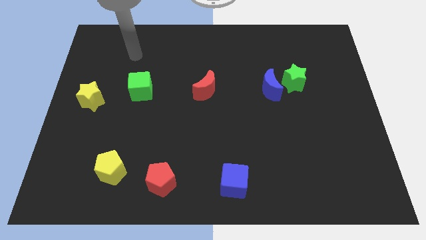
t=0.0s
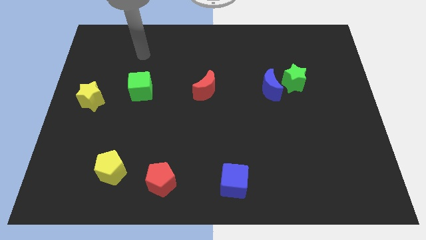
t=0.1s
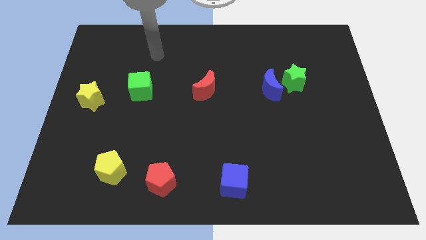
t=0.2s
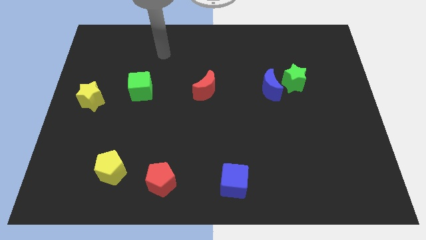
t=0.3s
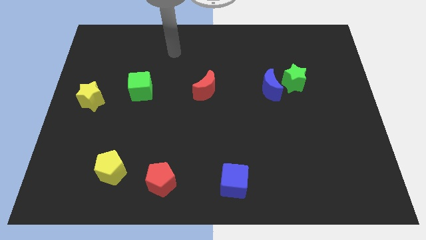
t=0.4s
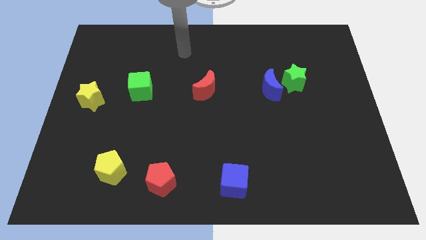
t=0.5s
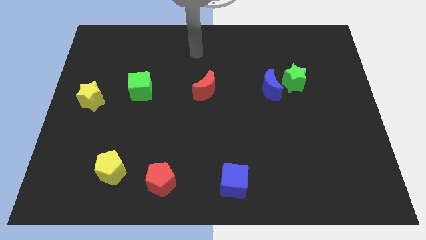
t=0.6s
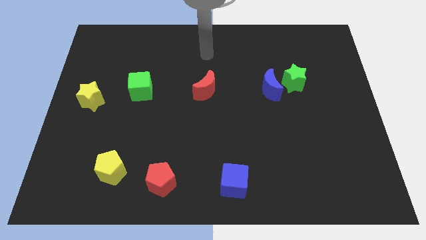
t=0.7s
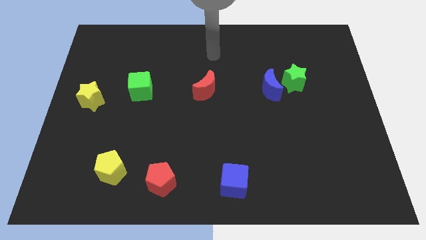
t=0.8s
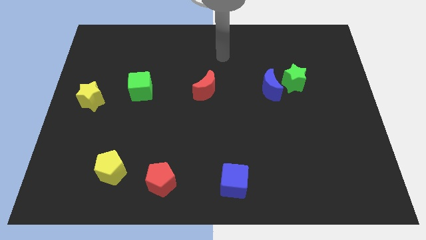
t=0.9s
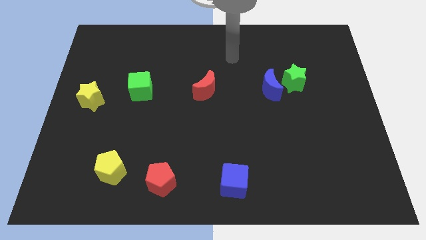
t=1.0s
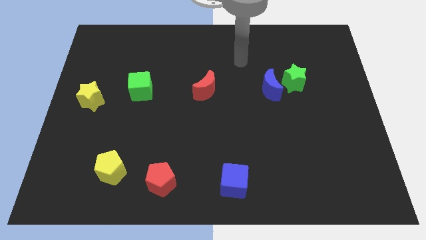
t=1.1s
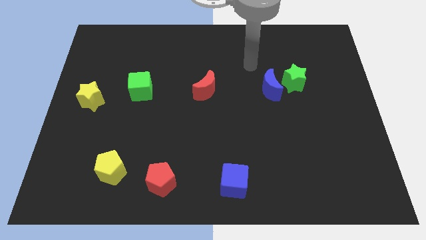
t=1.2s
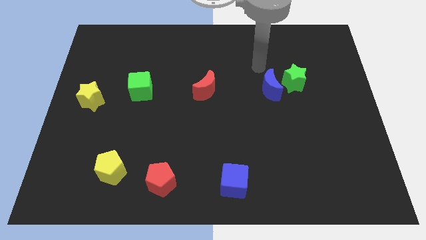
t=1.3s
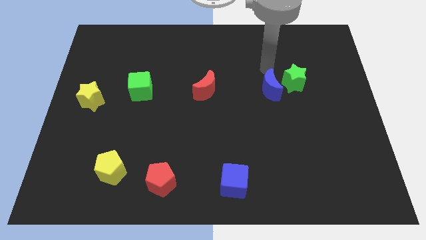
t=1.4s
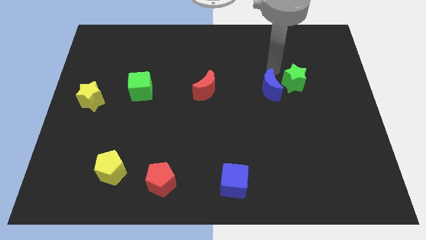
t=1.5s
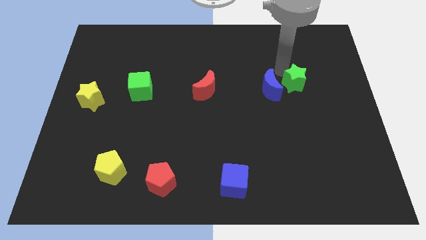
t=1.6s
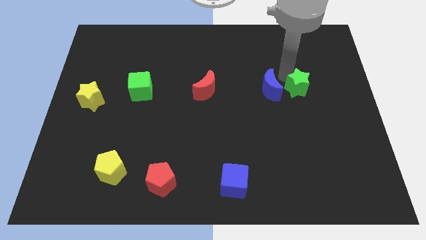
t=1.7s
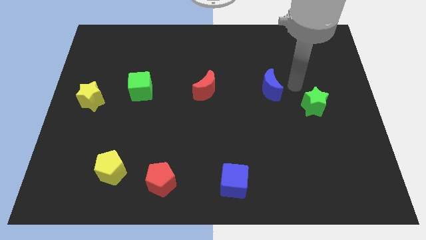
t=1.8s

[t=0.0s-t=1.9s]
pull the blue moon apart from the green star

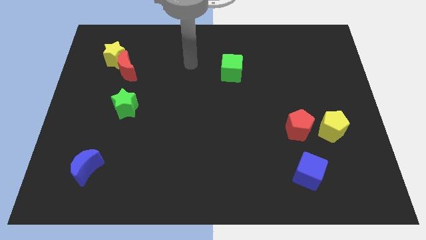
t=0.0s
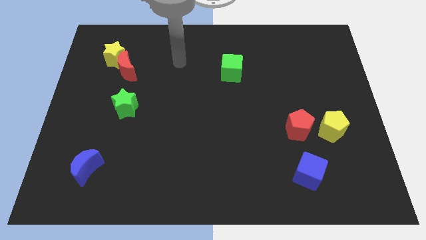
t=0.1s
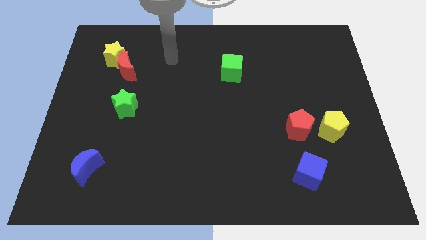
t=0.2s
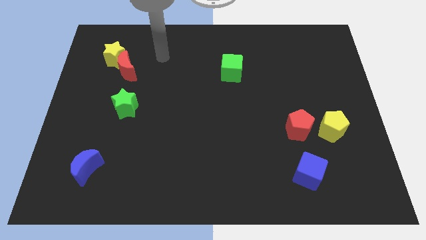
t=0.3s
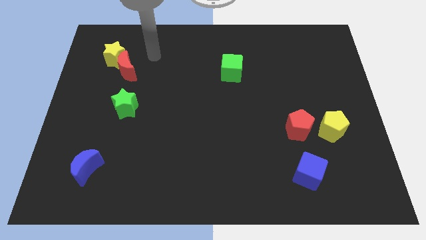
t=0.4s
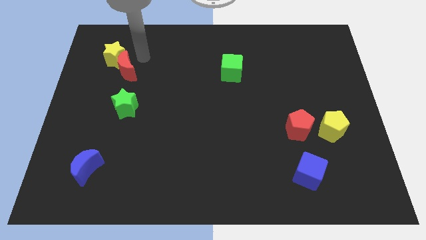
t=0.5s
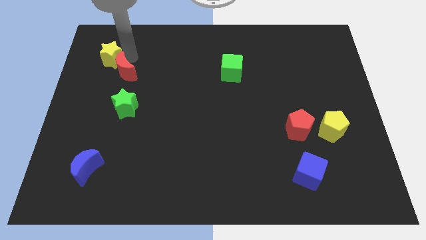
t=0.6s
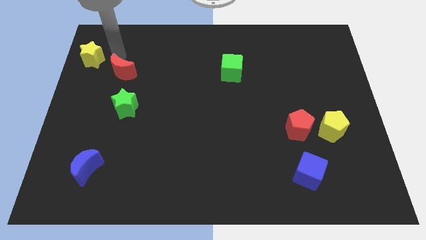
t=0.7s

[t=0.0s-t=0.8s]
separate the red moon from the yellow star

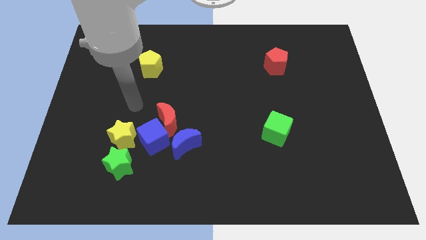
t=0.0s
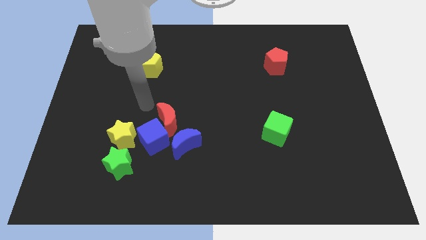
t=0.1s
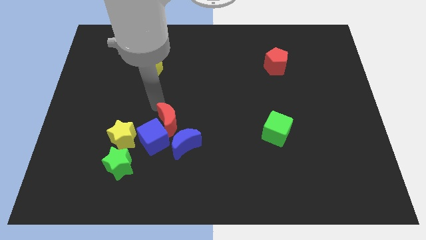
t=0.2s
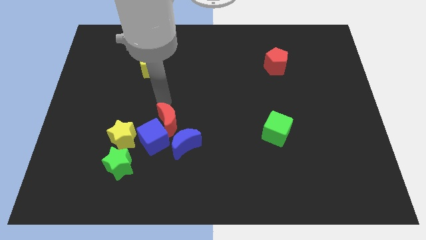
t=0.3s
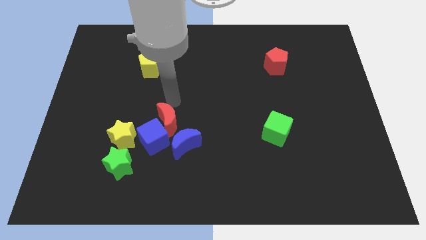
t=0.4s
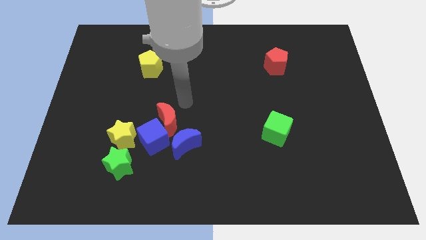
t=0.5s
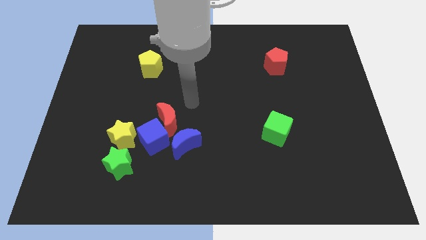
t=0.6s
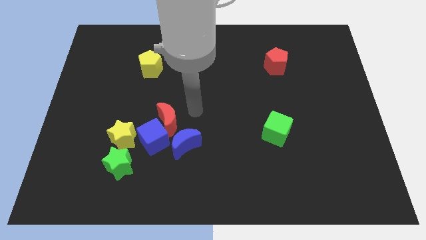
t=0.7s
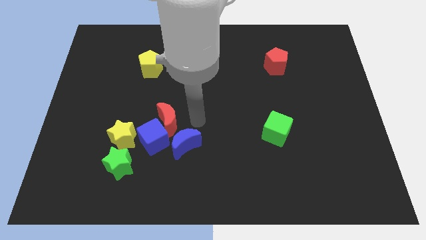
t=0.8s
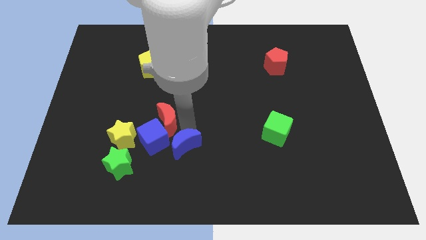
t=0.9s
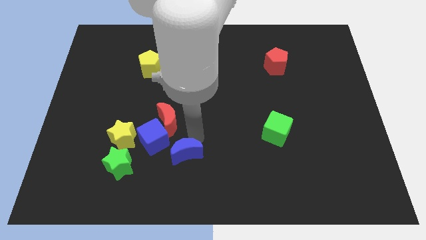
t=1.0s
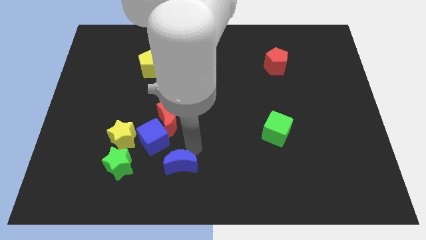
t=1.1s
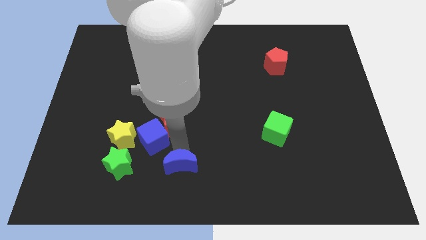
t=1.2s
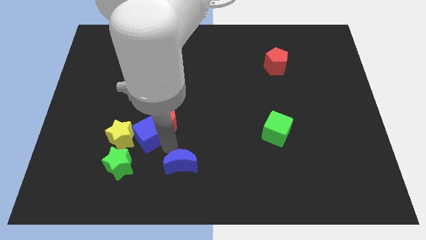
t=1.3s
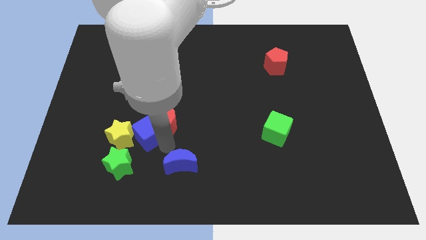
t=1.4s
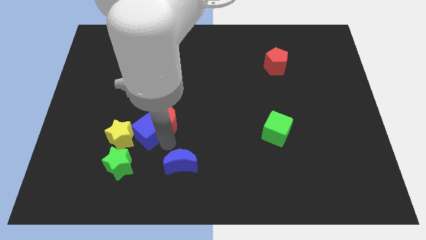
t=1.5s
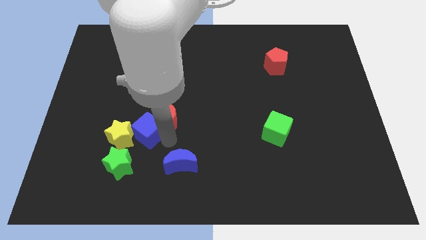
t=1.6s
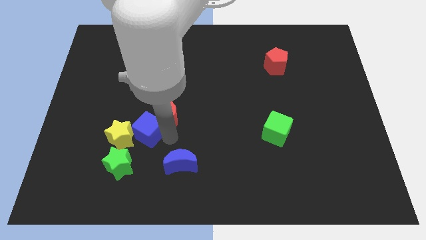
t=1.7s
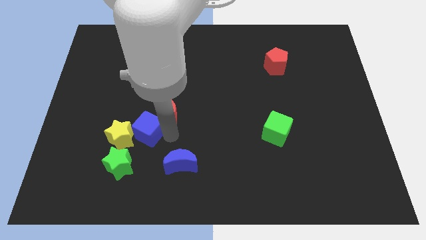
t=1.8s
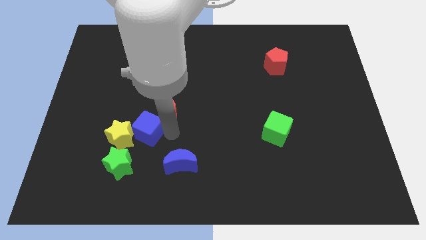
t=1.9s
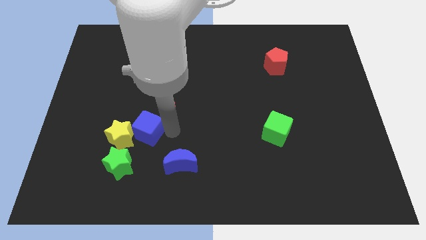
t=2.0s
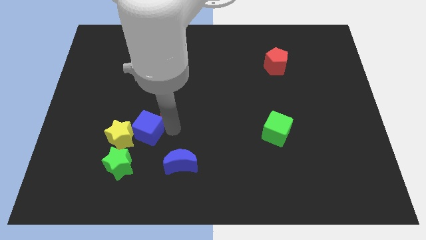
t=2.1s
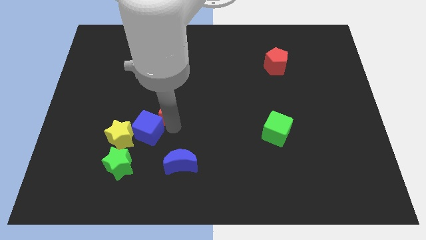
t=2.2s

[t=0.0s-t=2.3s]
pull the red moon apart from the blue cube and blue moon

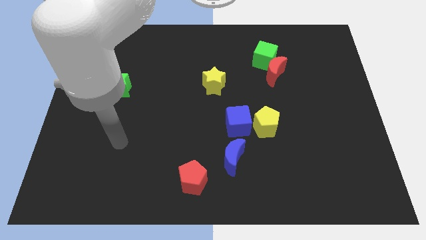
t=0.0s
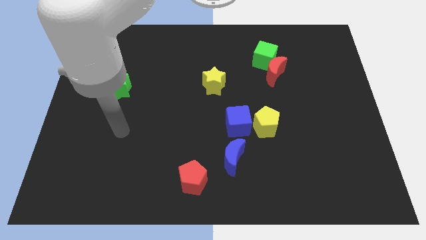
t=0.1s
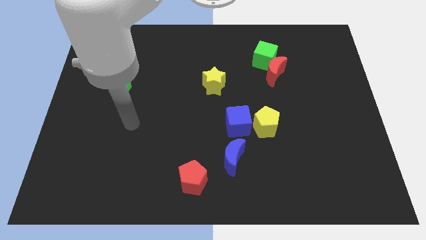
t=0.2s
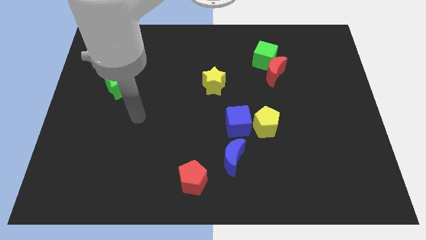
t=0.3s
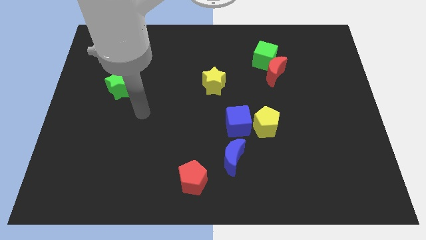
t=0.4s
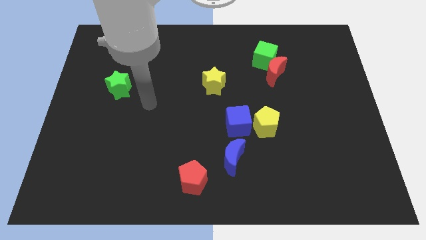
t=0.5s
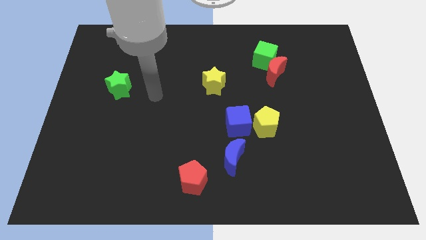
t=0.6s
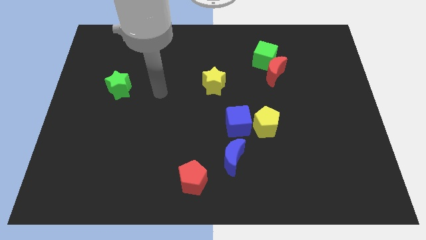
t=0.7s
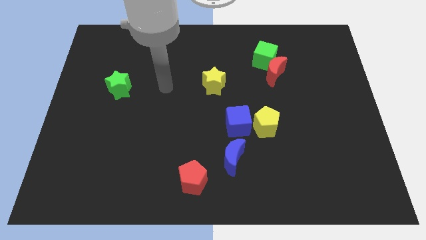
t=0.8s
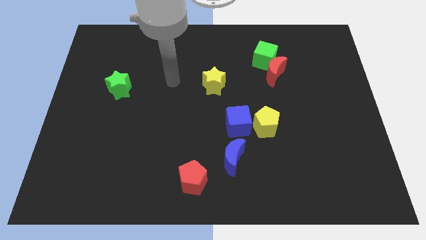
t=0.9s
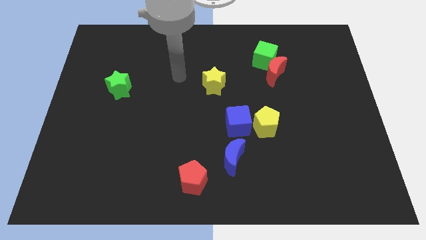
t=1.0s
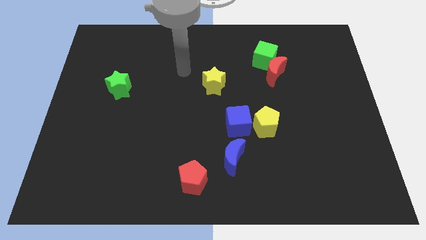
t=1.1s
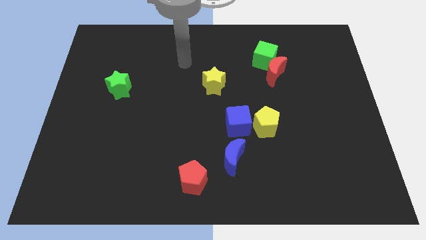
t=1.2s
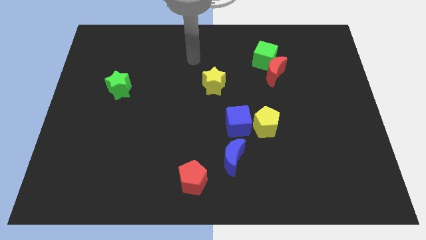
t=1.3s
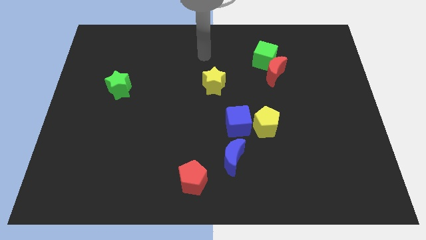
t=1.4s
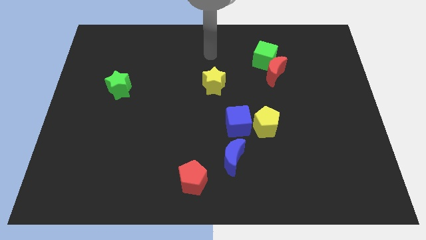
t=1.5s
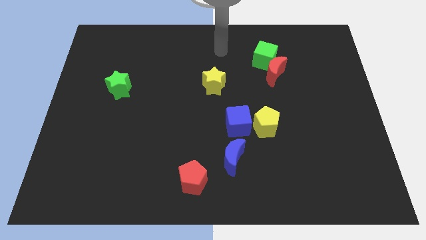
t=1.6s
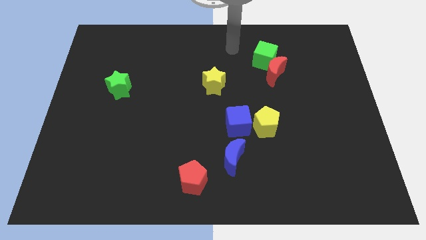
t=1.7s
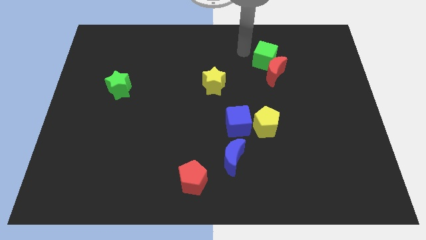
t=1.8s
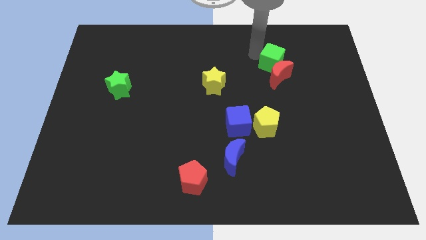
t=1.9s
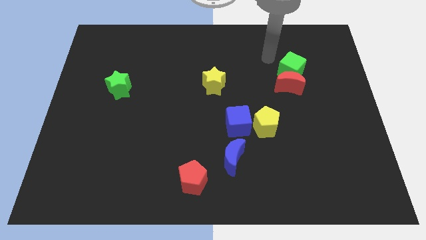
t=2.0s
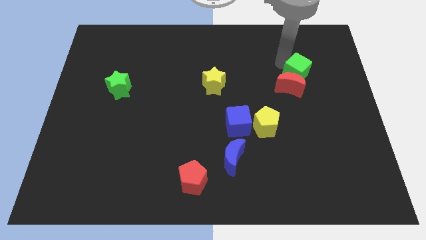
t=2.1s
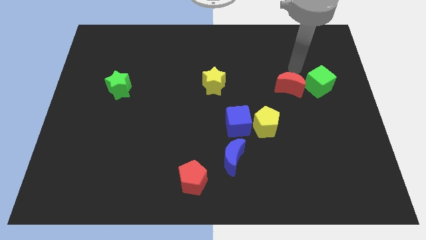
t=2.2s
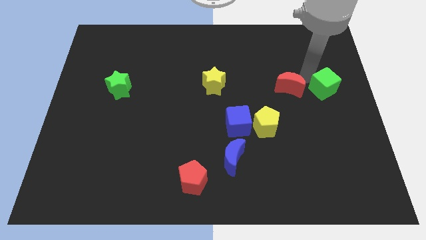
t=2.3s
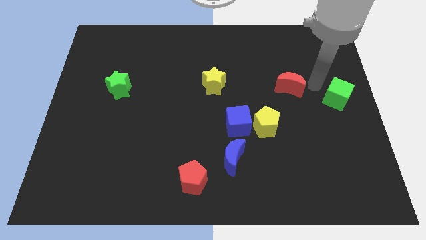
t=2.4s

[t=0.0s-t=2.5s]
separate the red moon from the green cube

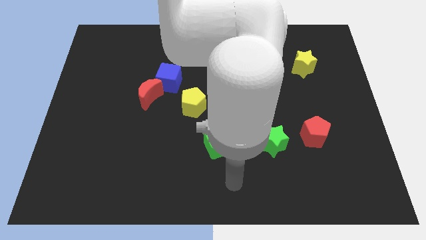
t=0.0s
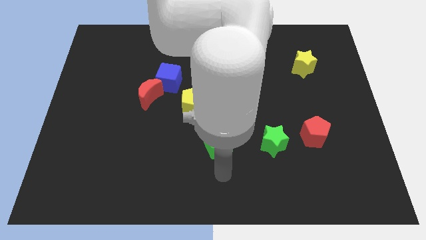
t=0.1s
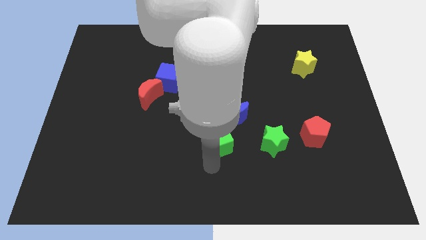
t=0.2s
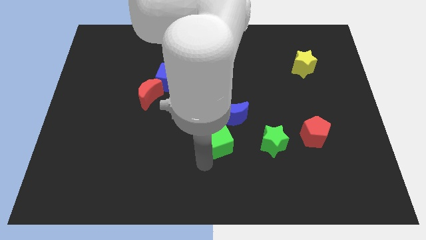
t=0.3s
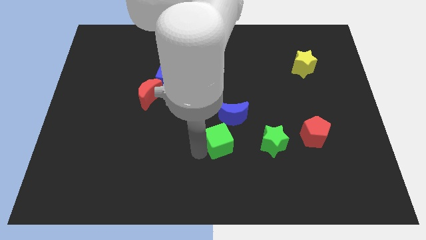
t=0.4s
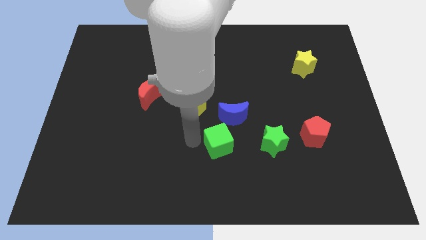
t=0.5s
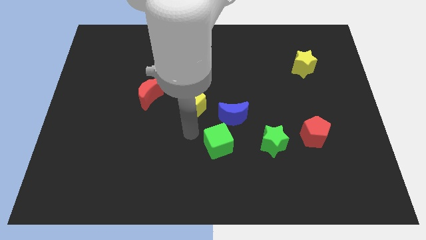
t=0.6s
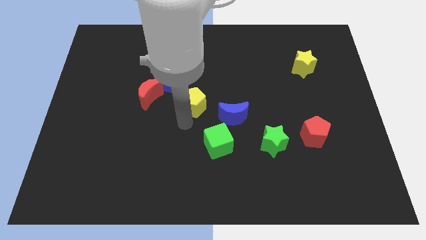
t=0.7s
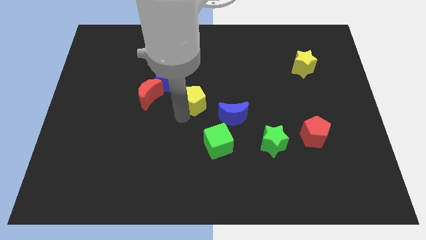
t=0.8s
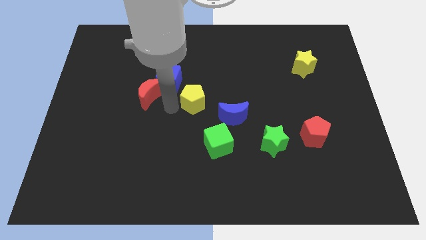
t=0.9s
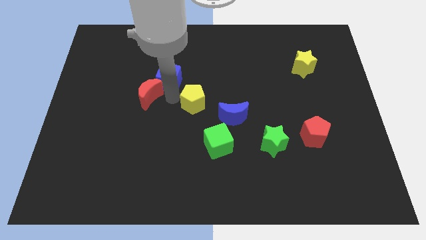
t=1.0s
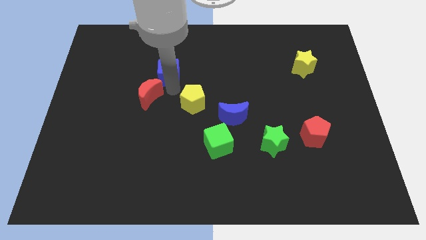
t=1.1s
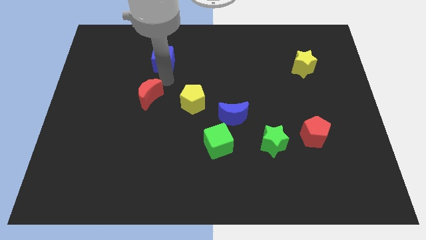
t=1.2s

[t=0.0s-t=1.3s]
separate the red moon from the blue cube

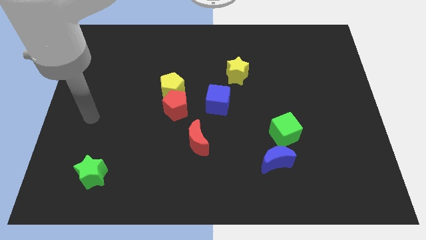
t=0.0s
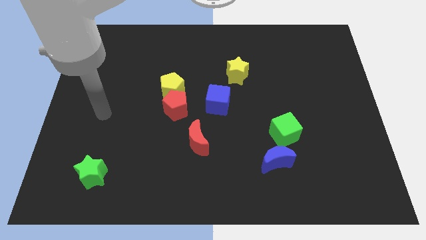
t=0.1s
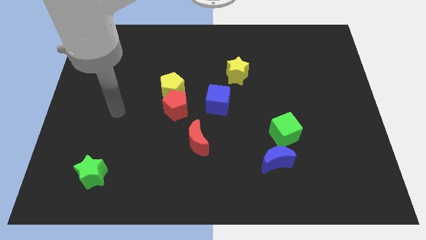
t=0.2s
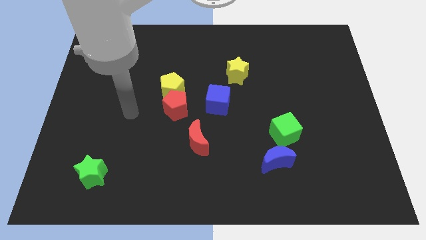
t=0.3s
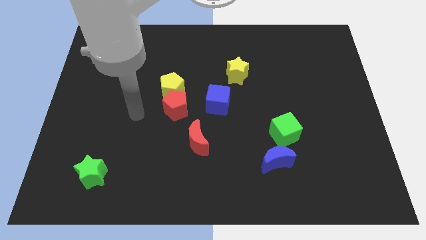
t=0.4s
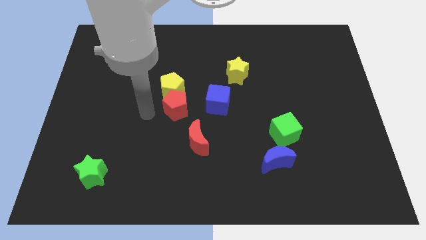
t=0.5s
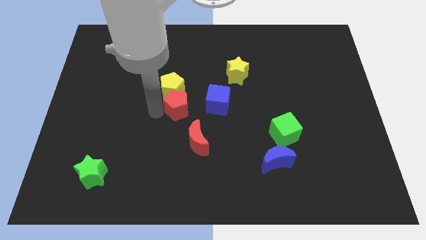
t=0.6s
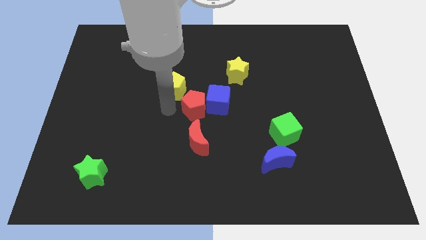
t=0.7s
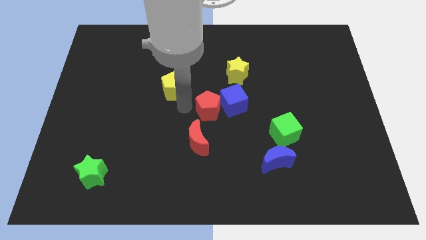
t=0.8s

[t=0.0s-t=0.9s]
move the yellow pentagon away from the red pentagon
